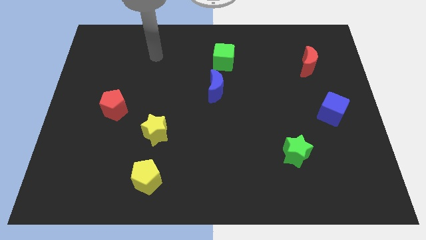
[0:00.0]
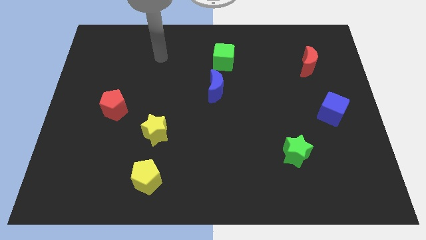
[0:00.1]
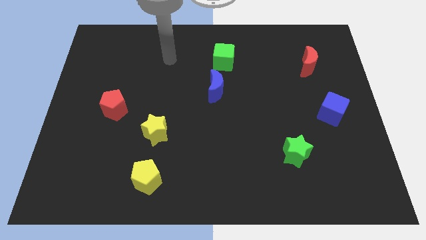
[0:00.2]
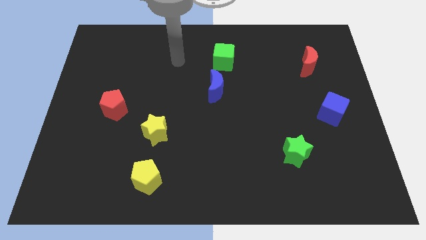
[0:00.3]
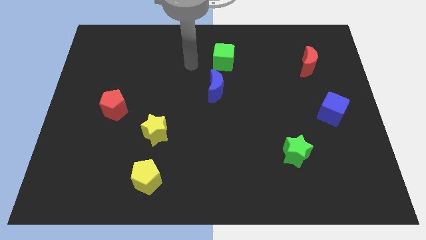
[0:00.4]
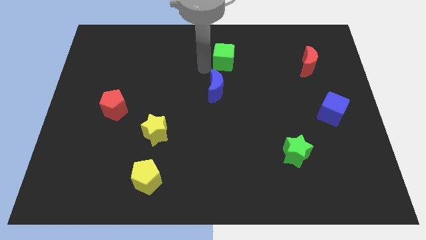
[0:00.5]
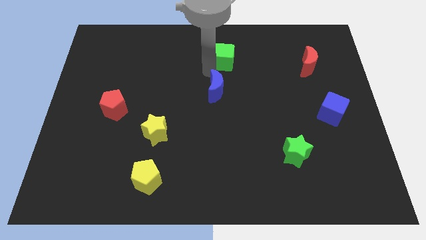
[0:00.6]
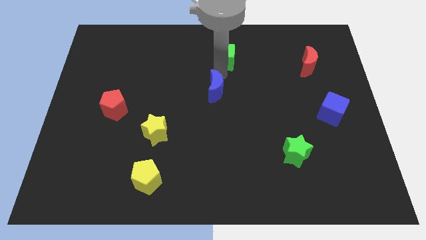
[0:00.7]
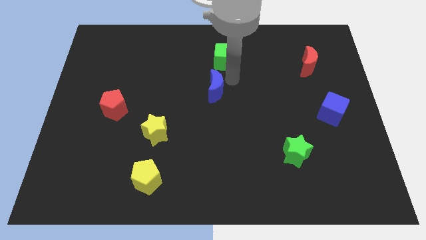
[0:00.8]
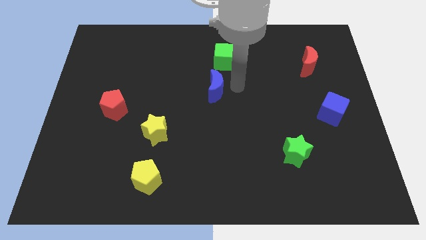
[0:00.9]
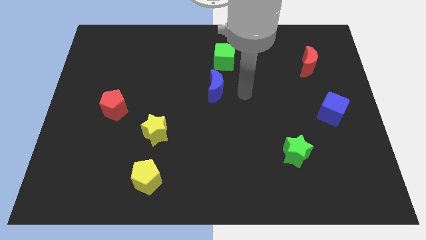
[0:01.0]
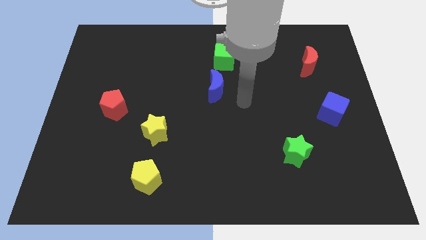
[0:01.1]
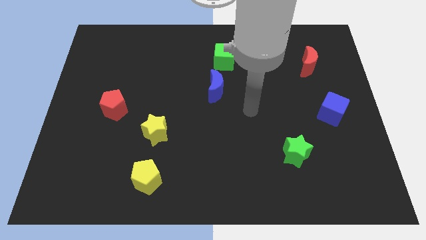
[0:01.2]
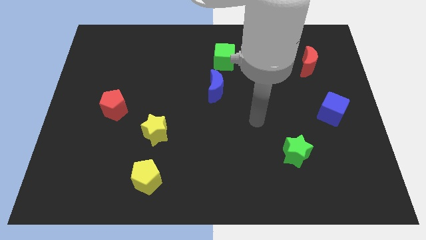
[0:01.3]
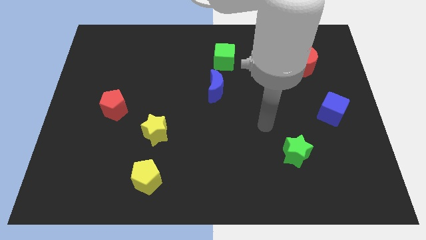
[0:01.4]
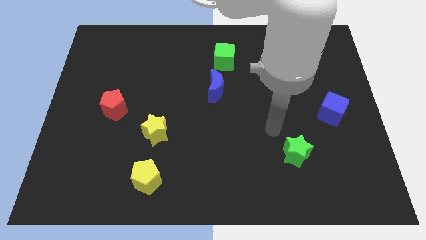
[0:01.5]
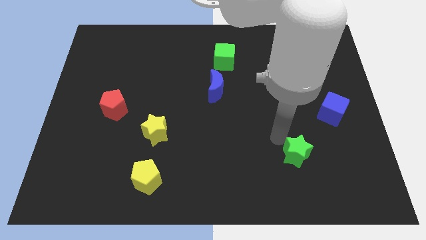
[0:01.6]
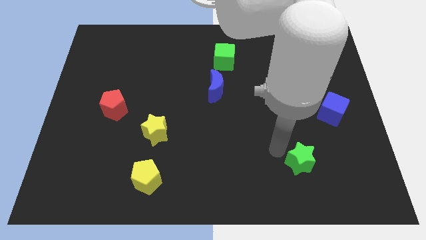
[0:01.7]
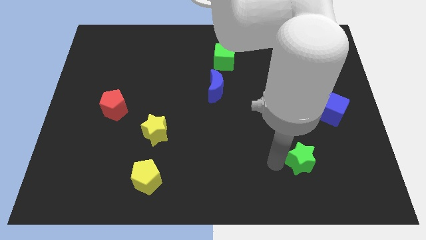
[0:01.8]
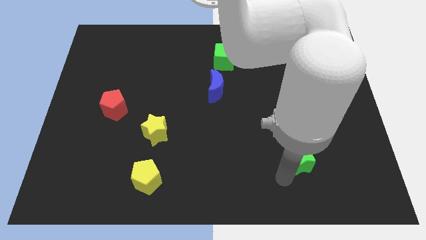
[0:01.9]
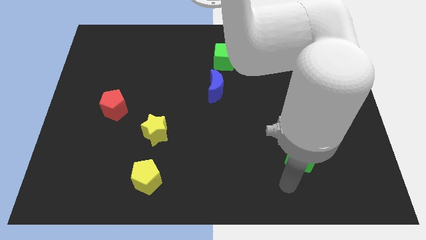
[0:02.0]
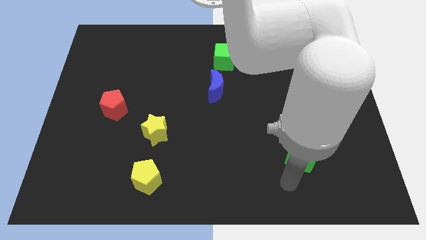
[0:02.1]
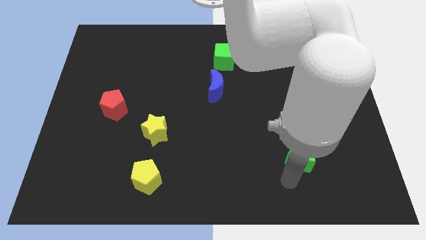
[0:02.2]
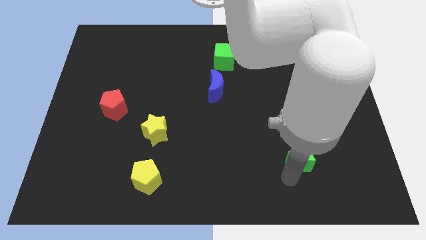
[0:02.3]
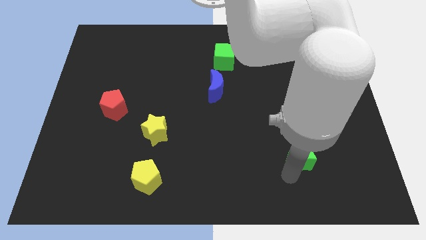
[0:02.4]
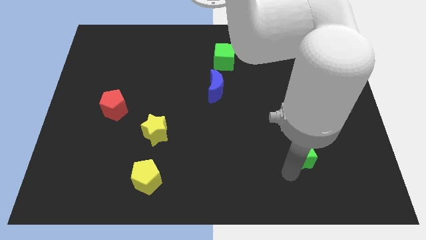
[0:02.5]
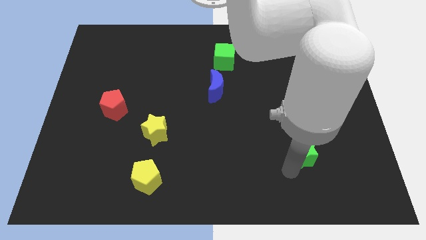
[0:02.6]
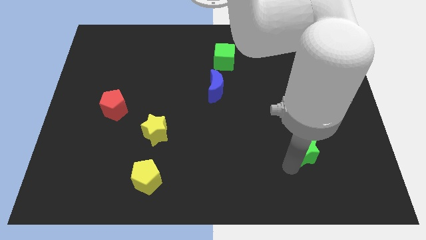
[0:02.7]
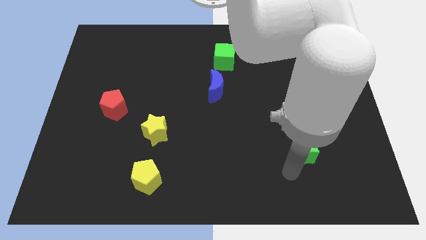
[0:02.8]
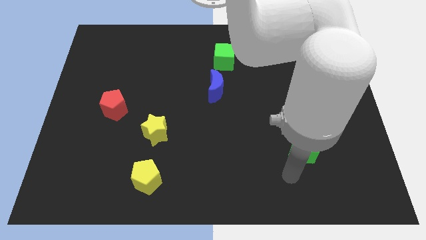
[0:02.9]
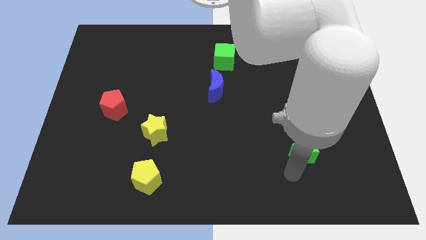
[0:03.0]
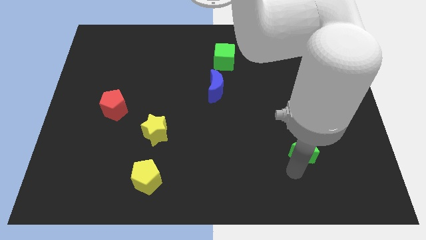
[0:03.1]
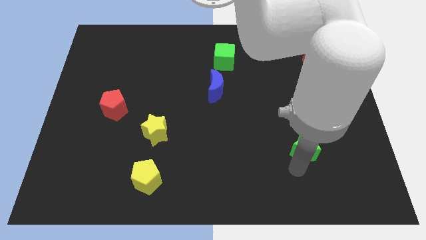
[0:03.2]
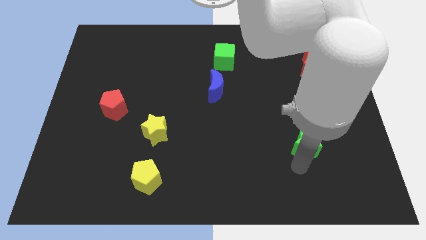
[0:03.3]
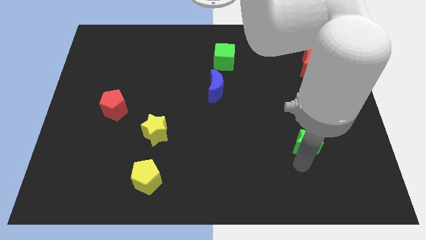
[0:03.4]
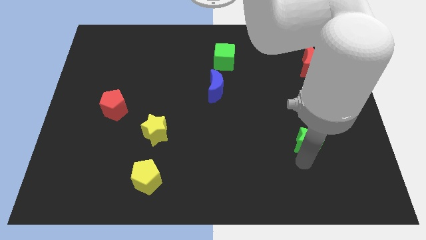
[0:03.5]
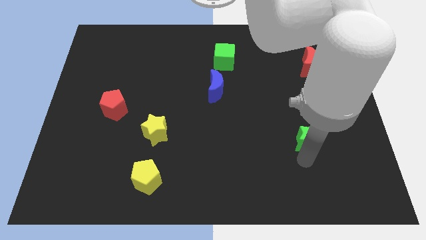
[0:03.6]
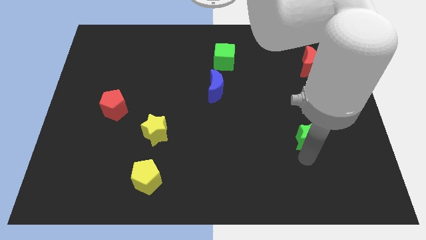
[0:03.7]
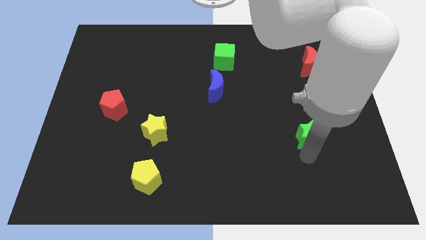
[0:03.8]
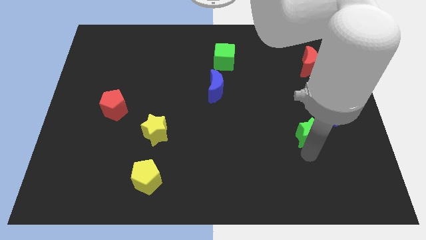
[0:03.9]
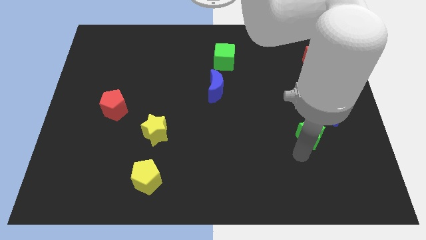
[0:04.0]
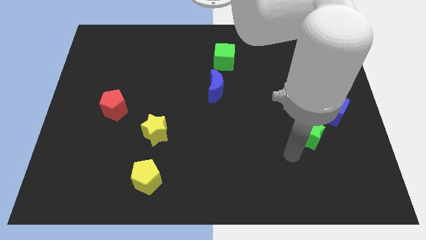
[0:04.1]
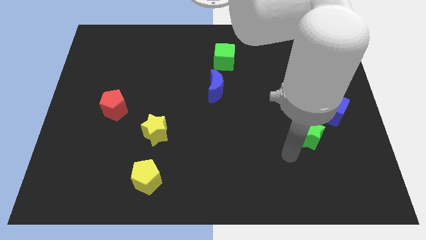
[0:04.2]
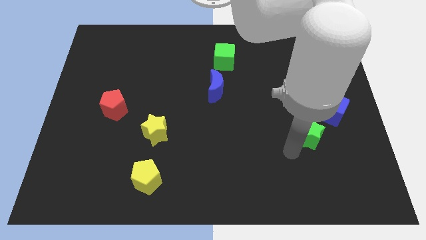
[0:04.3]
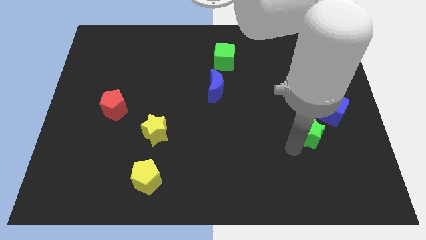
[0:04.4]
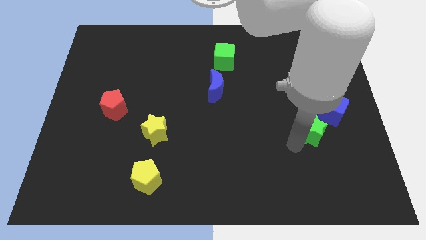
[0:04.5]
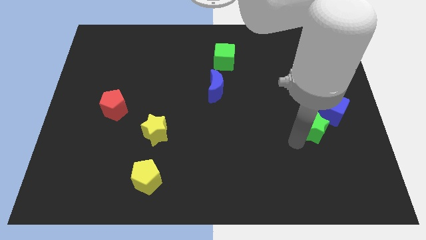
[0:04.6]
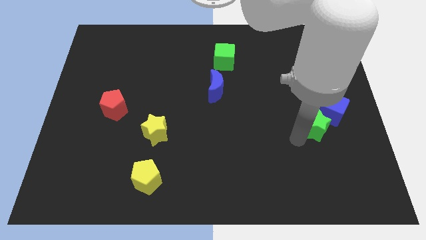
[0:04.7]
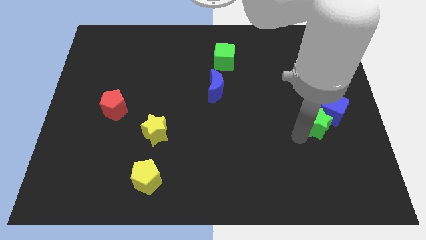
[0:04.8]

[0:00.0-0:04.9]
move the green star towards the blue cube

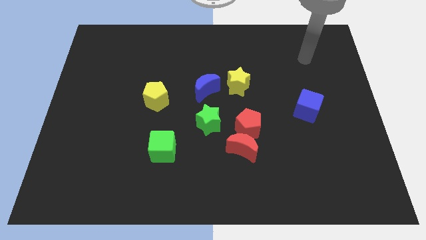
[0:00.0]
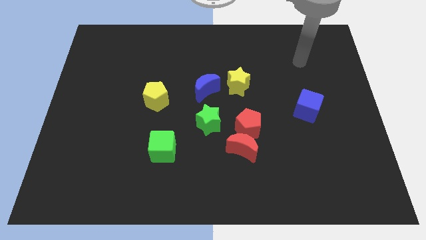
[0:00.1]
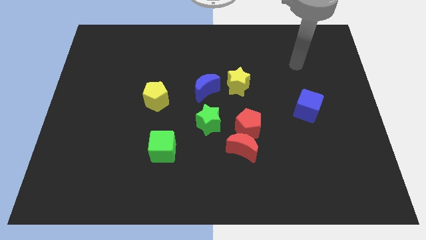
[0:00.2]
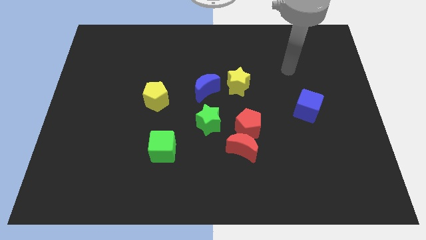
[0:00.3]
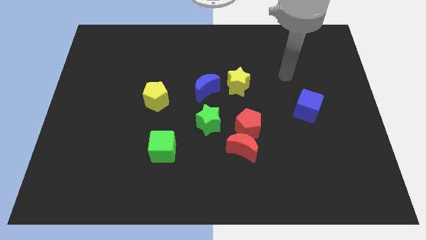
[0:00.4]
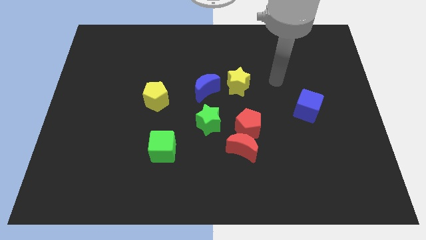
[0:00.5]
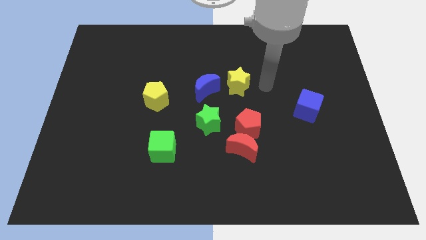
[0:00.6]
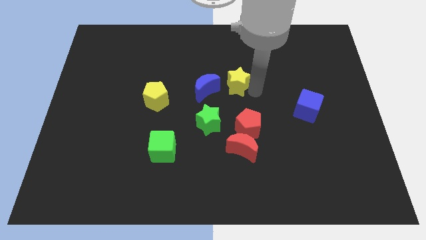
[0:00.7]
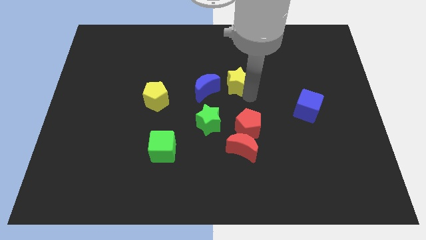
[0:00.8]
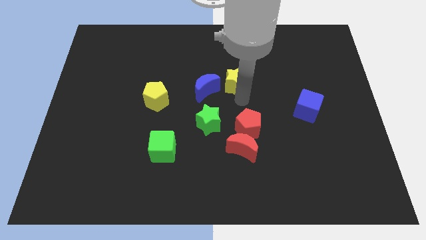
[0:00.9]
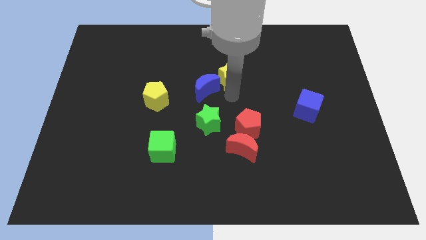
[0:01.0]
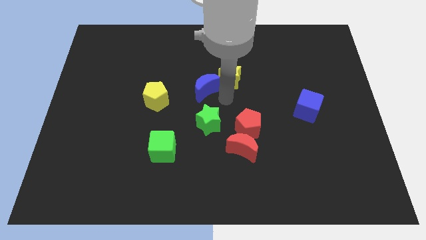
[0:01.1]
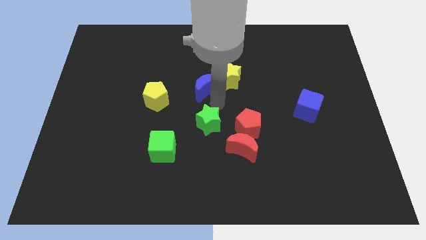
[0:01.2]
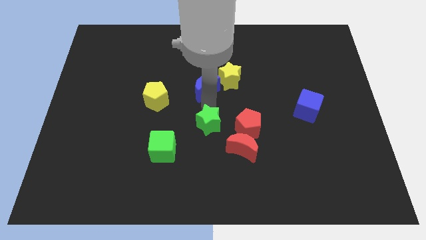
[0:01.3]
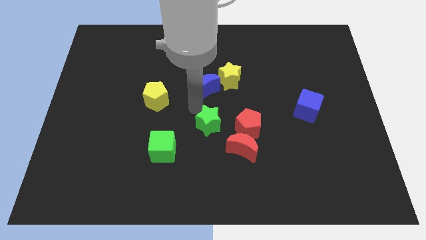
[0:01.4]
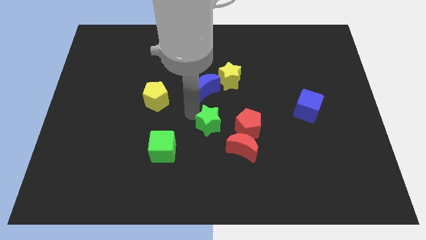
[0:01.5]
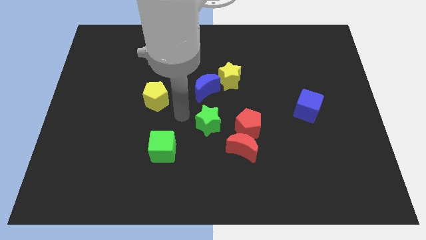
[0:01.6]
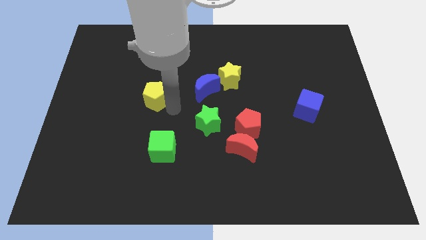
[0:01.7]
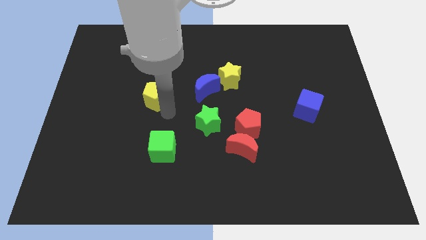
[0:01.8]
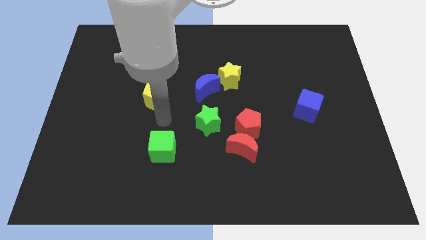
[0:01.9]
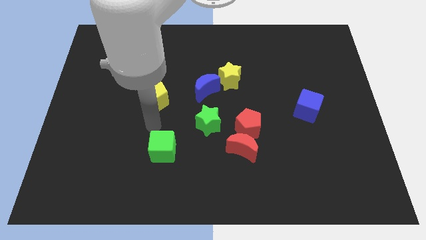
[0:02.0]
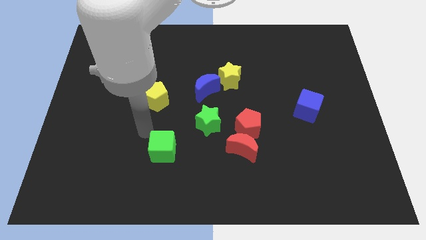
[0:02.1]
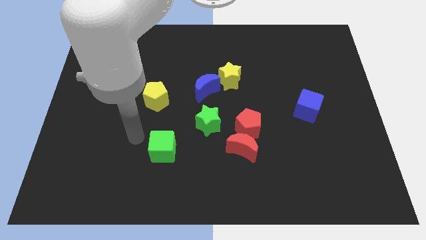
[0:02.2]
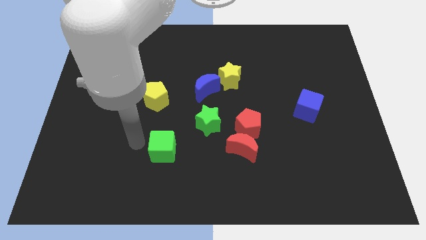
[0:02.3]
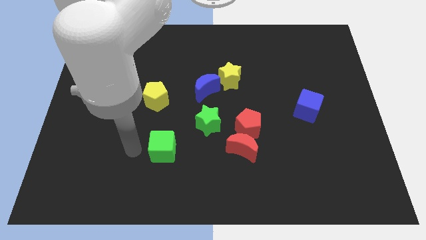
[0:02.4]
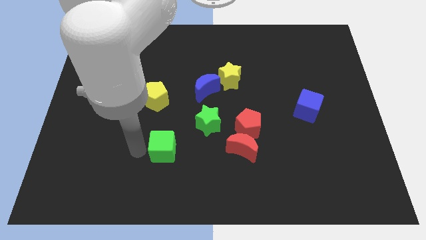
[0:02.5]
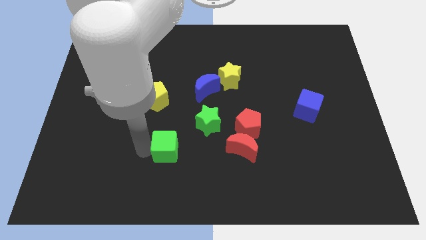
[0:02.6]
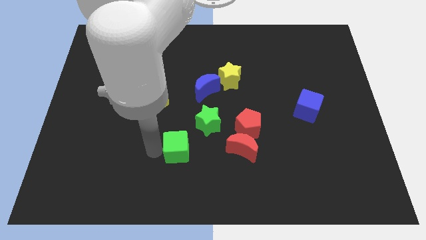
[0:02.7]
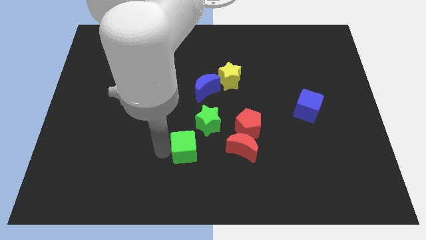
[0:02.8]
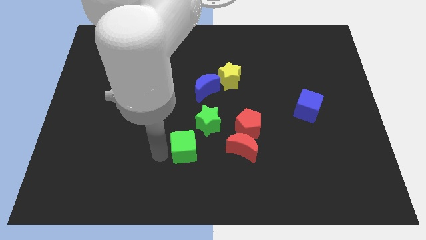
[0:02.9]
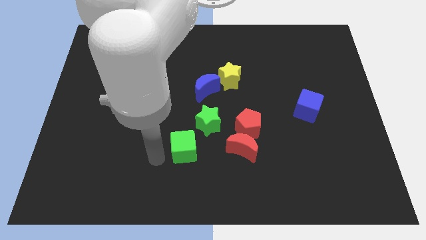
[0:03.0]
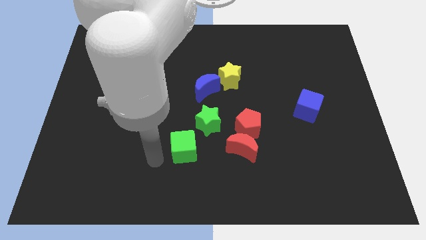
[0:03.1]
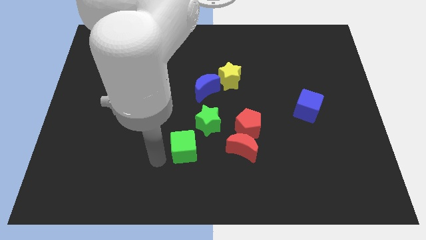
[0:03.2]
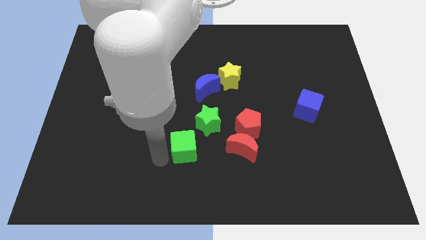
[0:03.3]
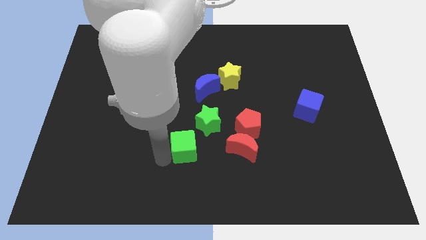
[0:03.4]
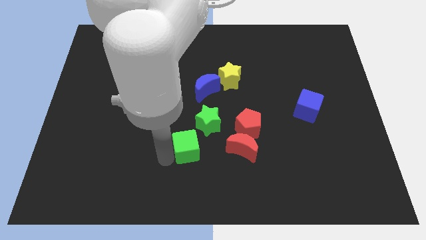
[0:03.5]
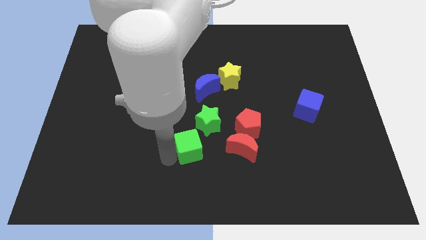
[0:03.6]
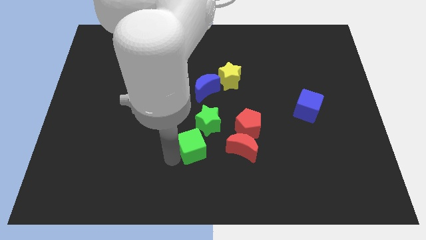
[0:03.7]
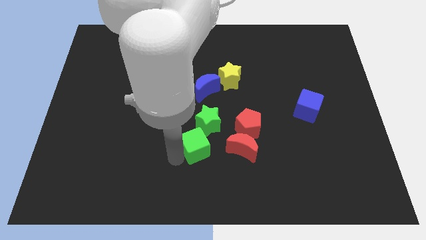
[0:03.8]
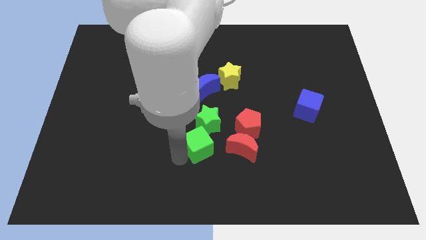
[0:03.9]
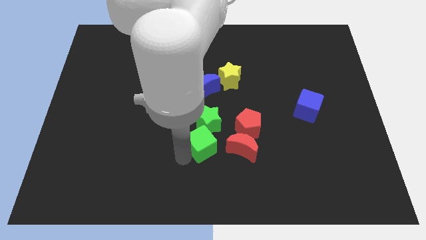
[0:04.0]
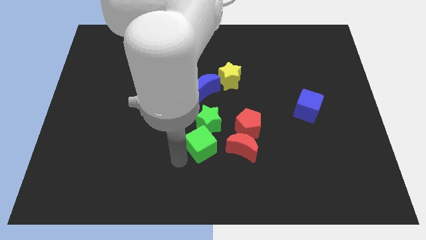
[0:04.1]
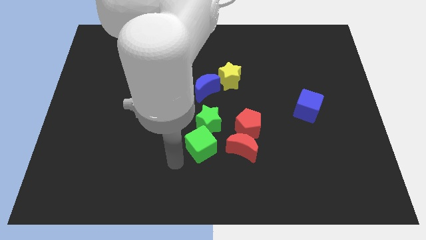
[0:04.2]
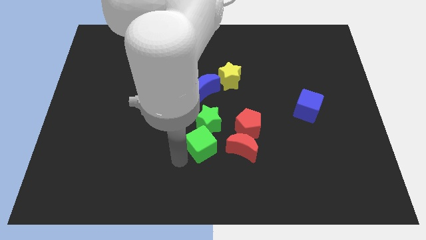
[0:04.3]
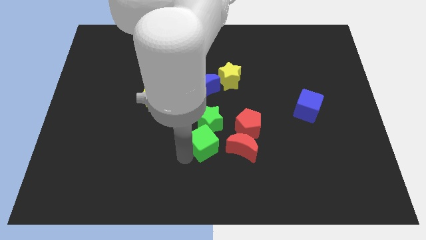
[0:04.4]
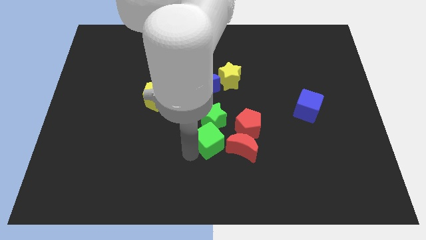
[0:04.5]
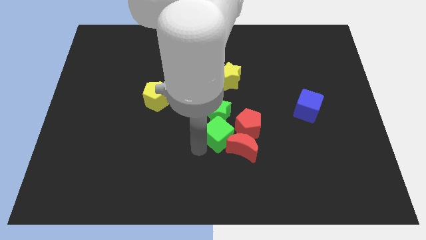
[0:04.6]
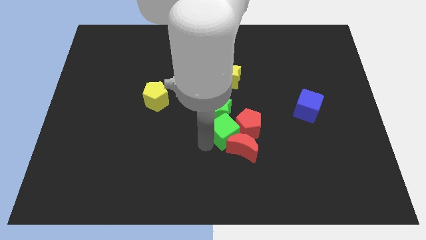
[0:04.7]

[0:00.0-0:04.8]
push the green cube to the red pentagon
